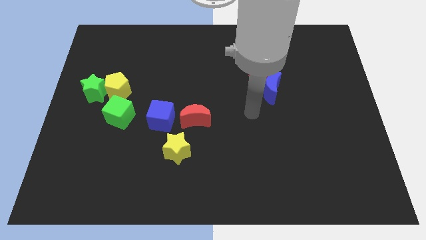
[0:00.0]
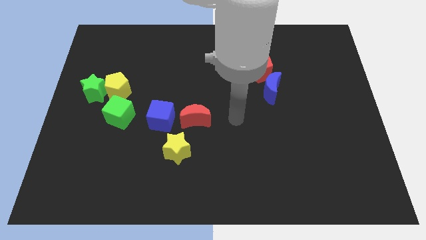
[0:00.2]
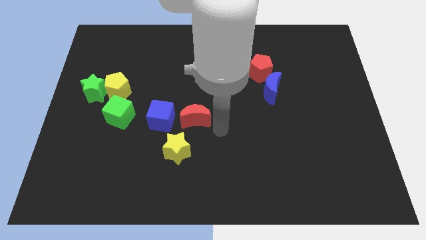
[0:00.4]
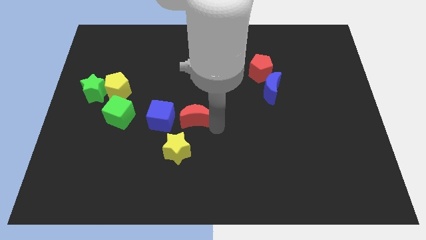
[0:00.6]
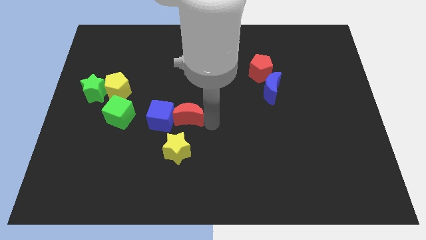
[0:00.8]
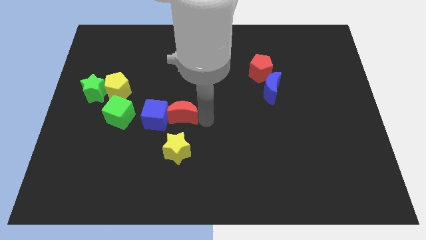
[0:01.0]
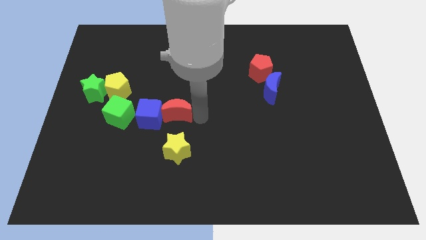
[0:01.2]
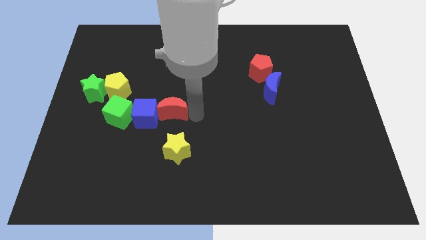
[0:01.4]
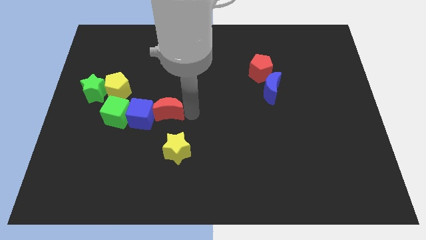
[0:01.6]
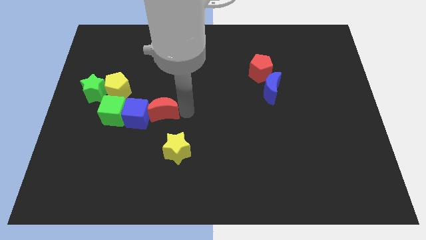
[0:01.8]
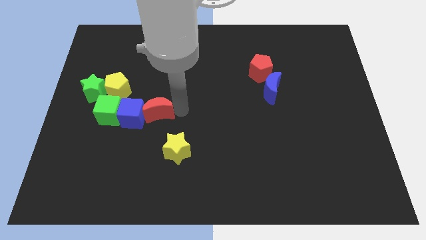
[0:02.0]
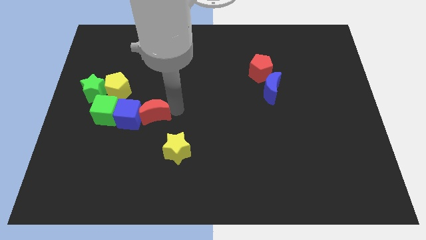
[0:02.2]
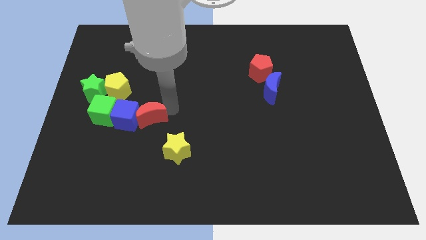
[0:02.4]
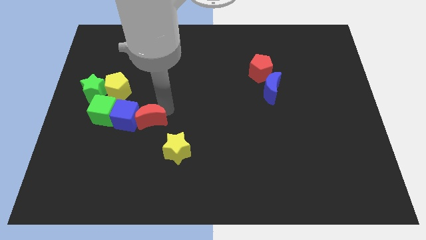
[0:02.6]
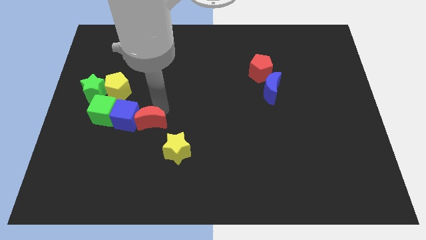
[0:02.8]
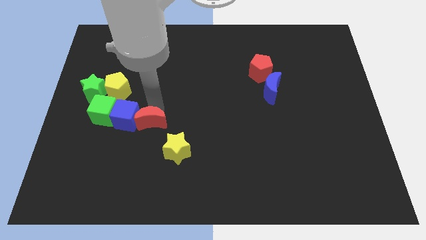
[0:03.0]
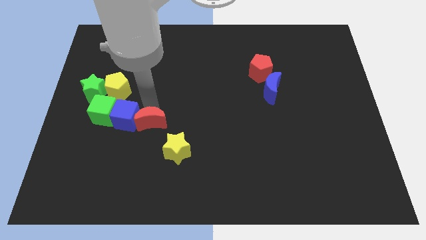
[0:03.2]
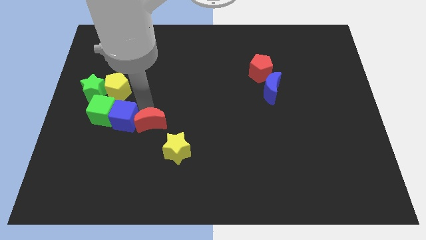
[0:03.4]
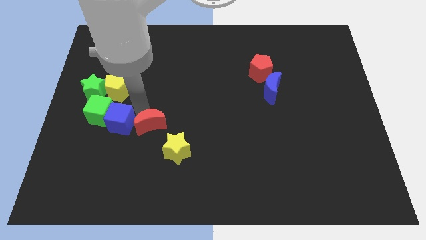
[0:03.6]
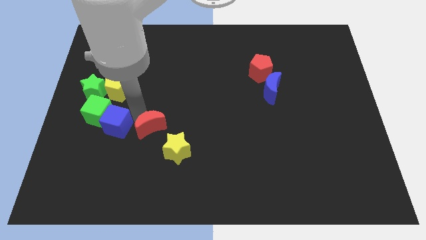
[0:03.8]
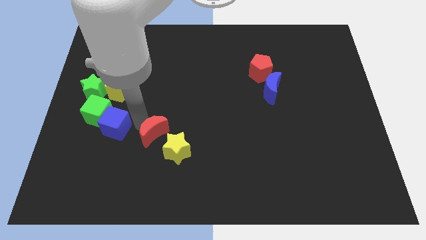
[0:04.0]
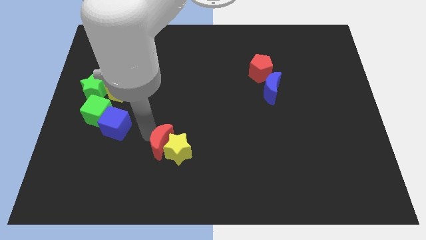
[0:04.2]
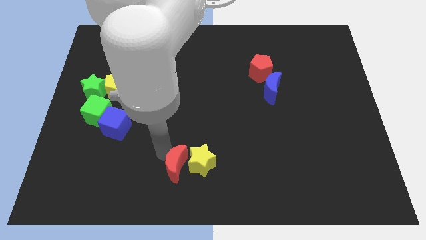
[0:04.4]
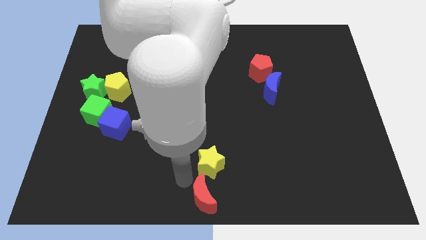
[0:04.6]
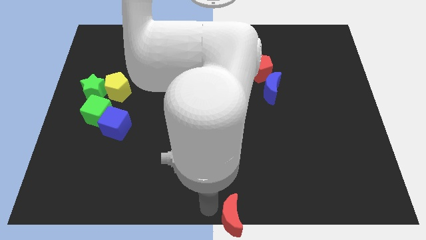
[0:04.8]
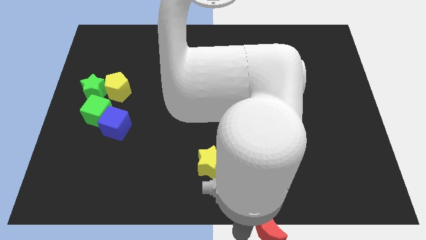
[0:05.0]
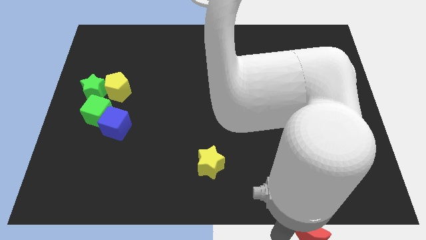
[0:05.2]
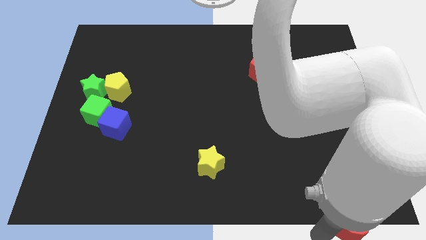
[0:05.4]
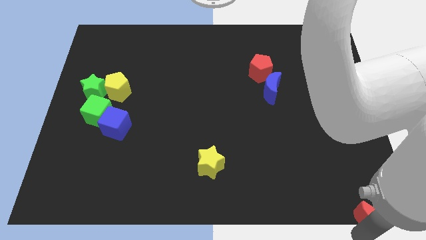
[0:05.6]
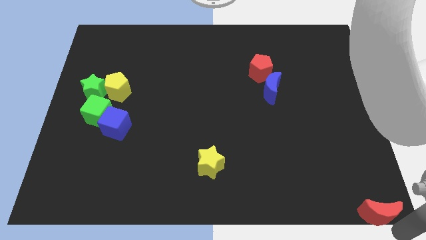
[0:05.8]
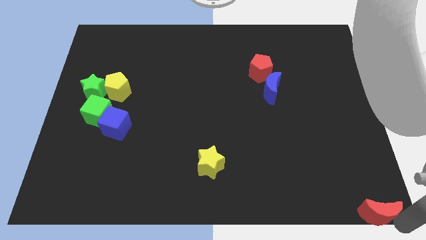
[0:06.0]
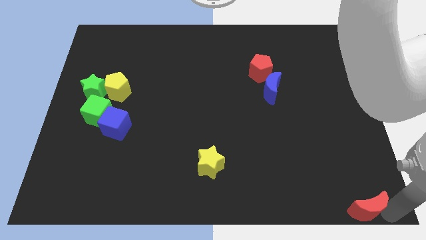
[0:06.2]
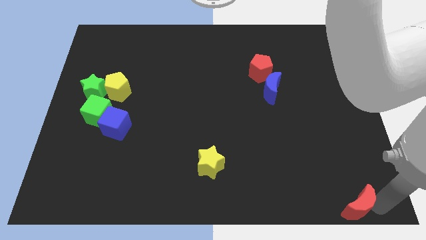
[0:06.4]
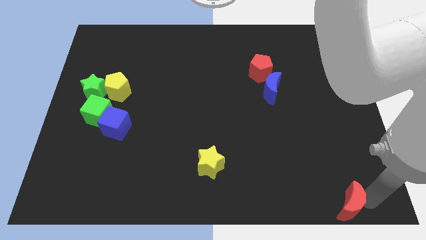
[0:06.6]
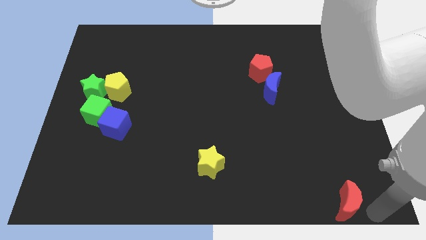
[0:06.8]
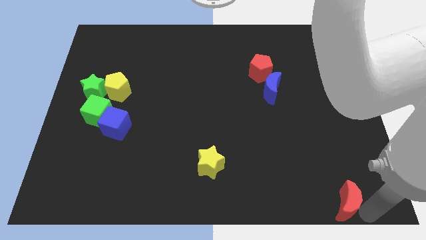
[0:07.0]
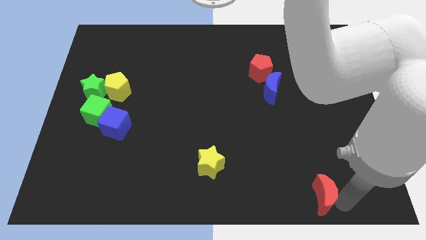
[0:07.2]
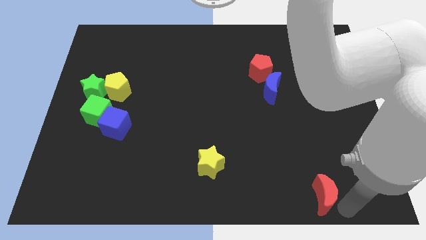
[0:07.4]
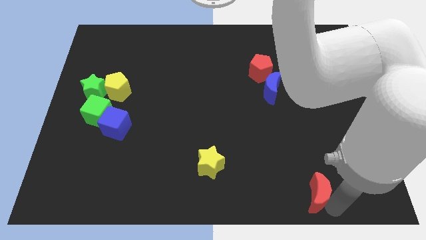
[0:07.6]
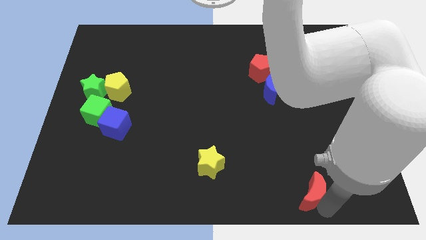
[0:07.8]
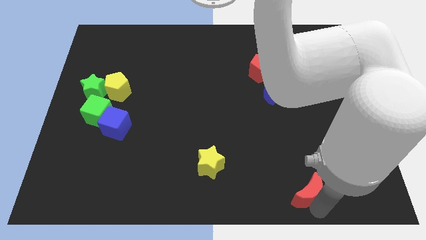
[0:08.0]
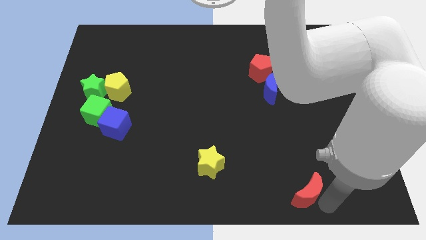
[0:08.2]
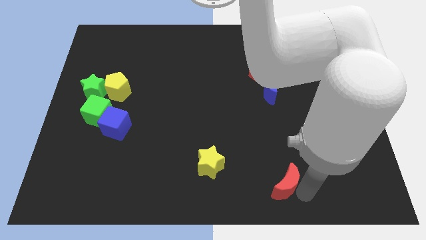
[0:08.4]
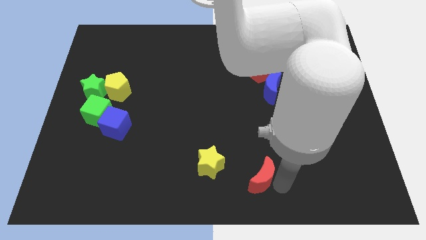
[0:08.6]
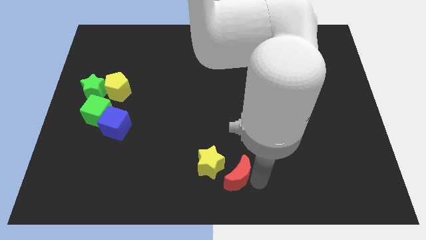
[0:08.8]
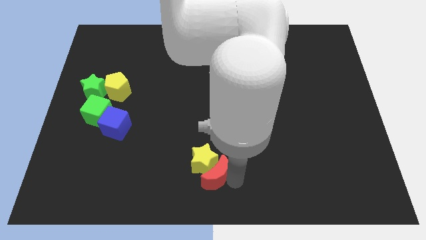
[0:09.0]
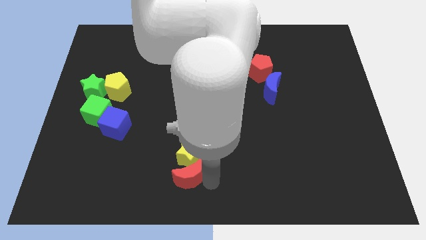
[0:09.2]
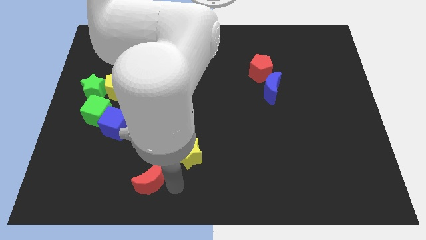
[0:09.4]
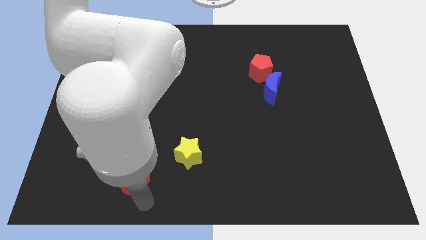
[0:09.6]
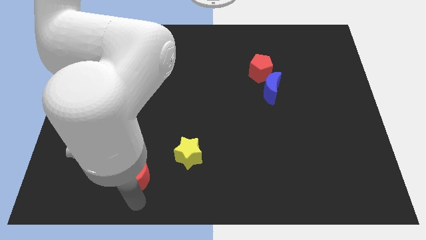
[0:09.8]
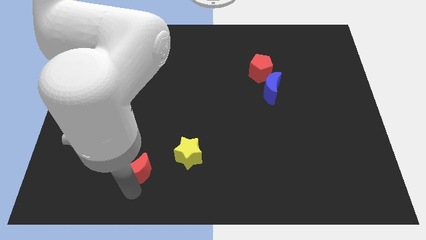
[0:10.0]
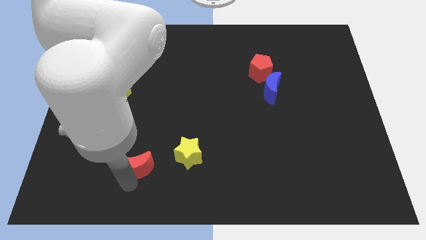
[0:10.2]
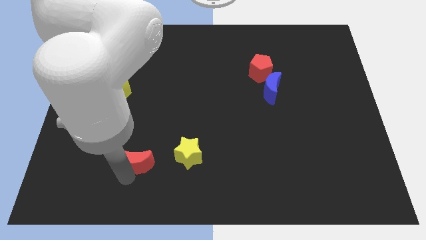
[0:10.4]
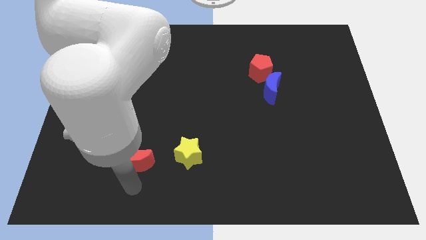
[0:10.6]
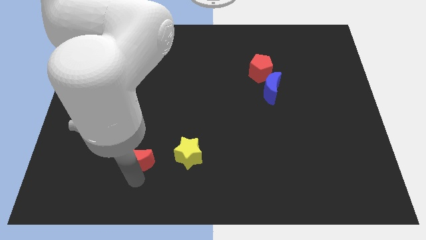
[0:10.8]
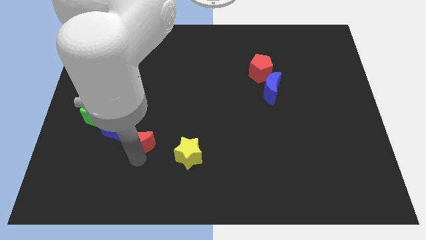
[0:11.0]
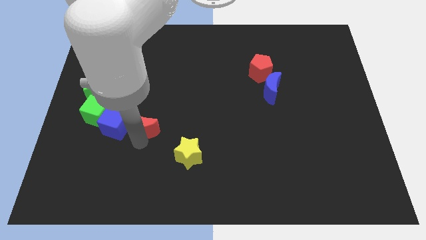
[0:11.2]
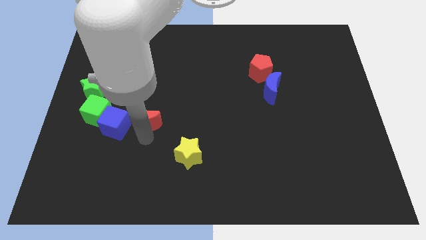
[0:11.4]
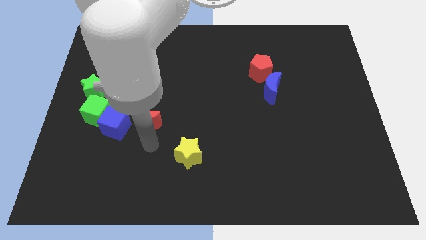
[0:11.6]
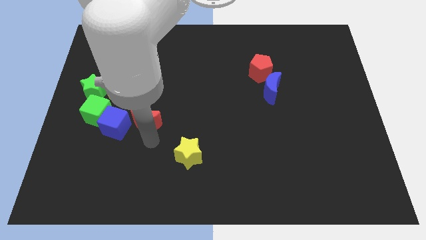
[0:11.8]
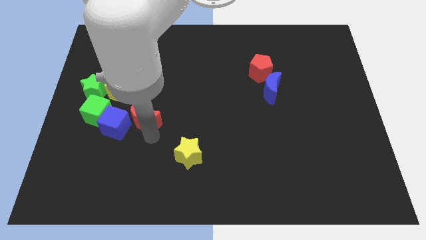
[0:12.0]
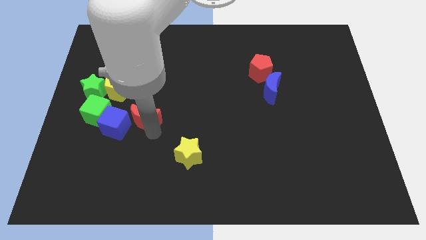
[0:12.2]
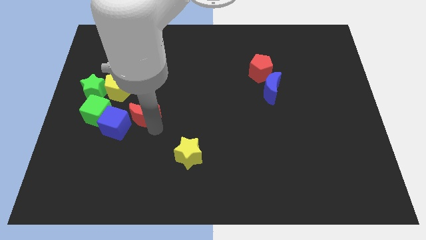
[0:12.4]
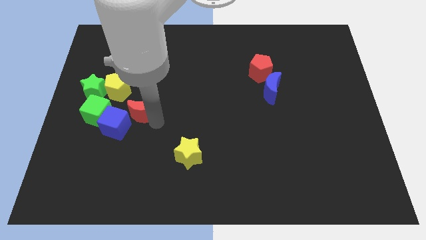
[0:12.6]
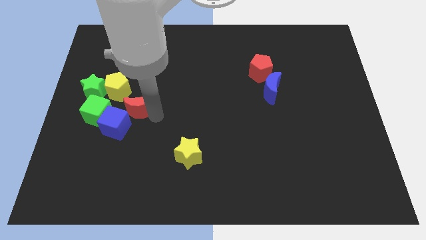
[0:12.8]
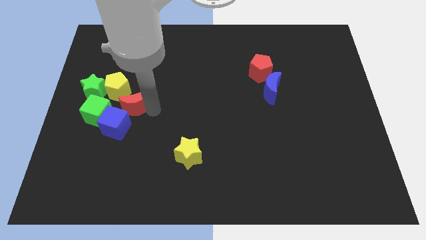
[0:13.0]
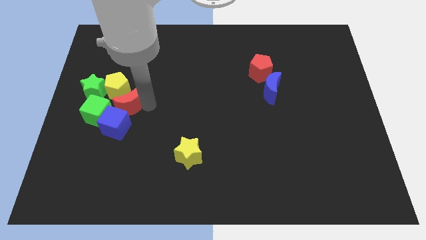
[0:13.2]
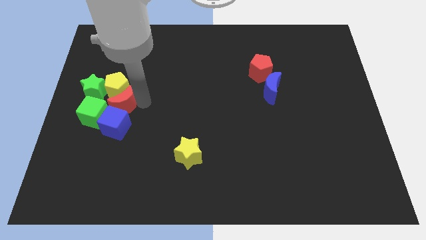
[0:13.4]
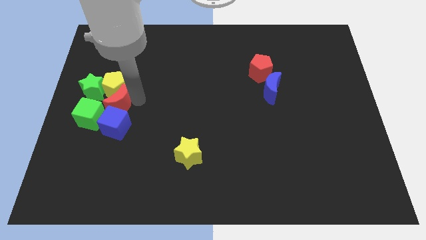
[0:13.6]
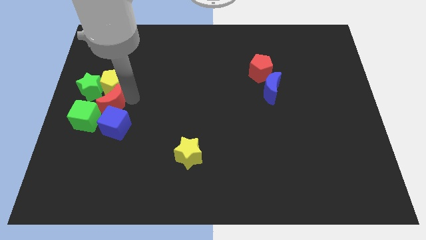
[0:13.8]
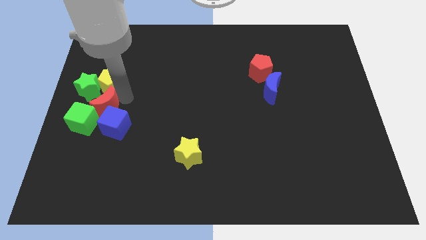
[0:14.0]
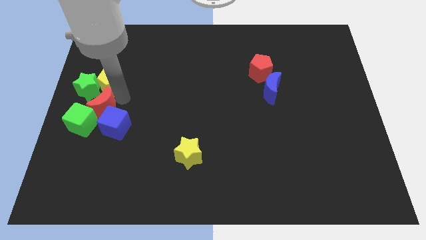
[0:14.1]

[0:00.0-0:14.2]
put the red moon next to the green cube

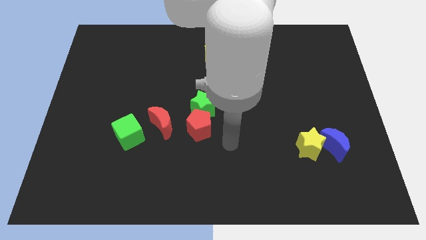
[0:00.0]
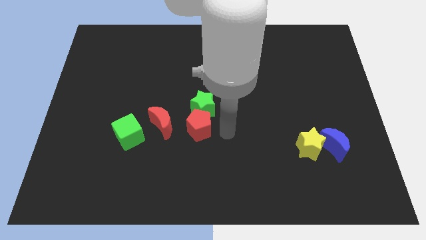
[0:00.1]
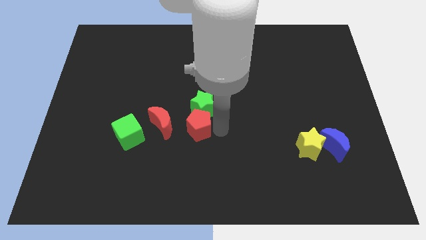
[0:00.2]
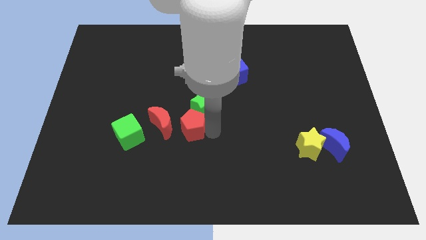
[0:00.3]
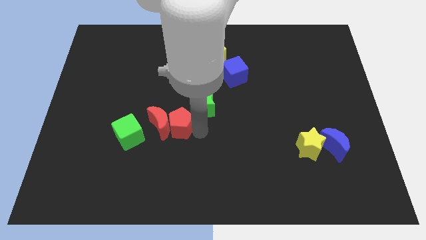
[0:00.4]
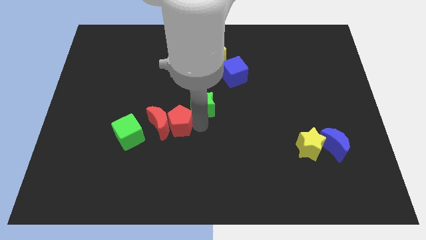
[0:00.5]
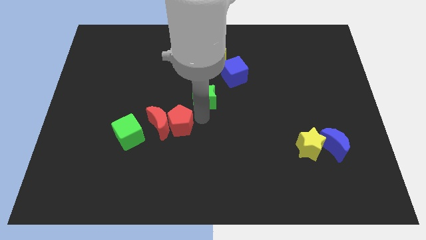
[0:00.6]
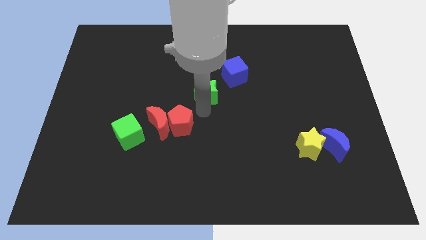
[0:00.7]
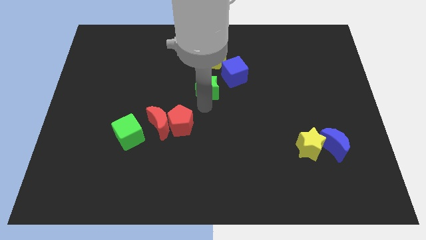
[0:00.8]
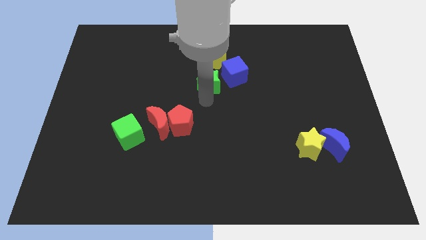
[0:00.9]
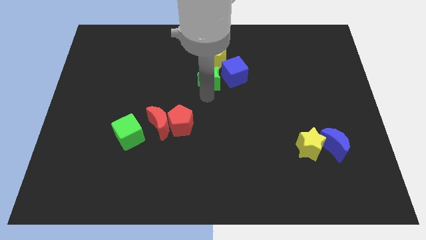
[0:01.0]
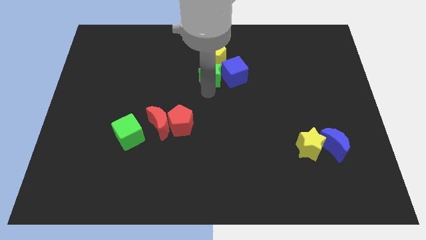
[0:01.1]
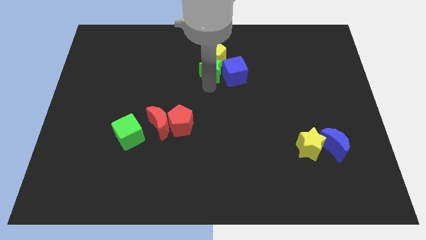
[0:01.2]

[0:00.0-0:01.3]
put the green star to the yellow pentagon
